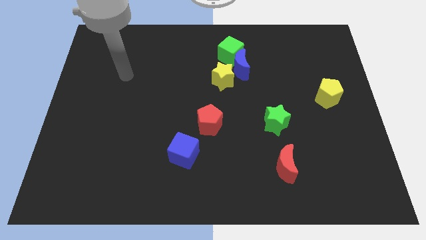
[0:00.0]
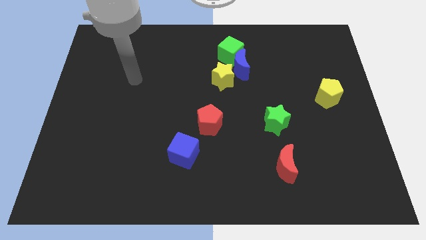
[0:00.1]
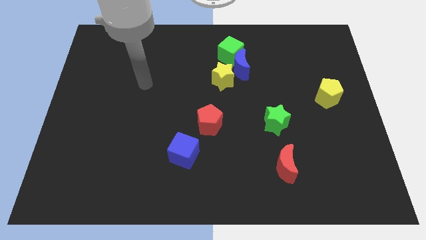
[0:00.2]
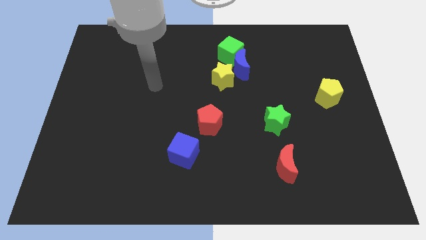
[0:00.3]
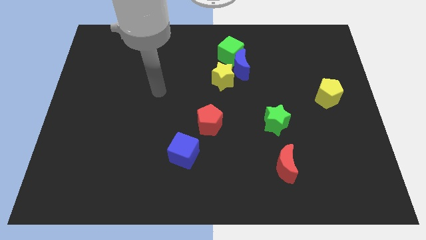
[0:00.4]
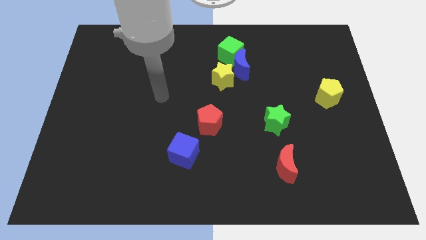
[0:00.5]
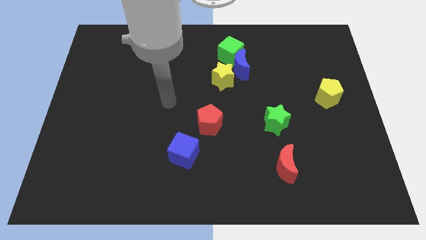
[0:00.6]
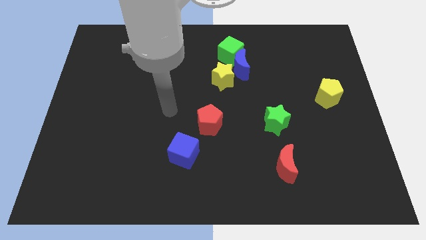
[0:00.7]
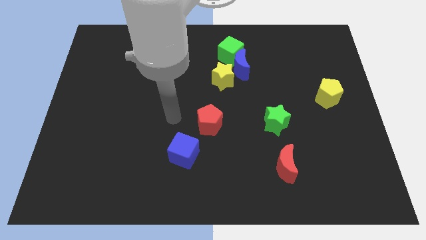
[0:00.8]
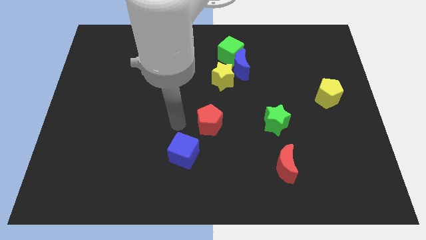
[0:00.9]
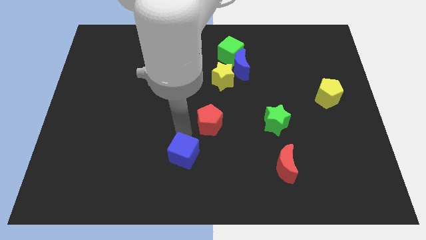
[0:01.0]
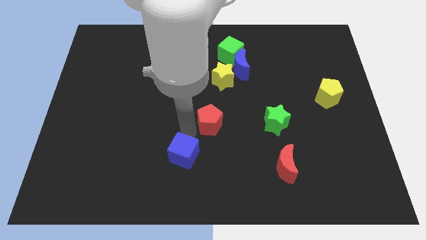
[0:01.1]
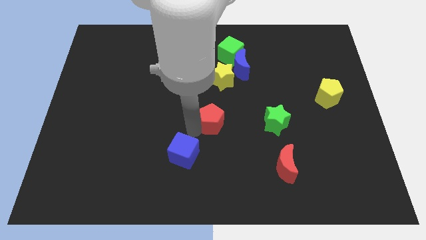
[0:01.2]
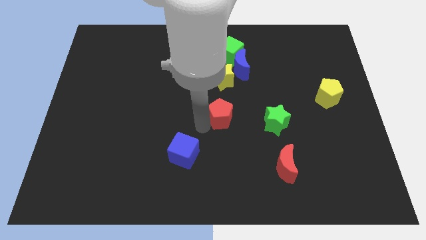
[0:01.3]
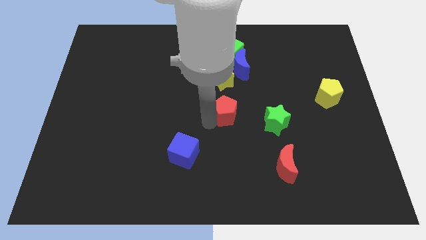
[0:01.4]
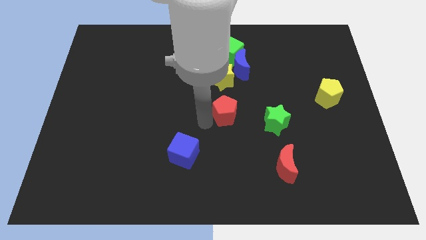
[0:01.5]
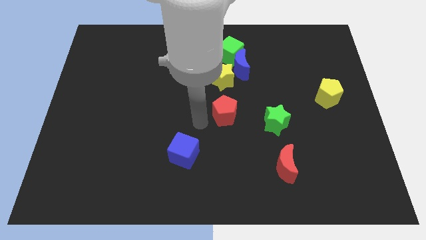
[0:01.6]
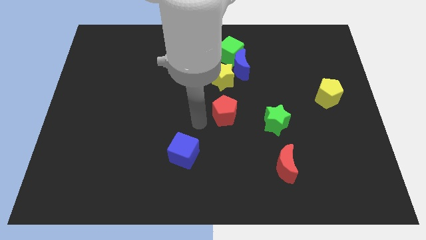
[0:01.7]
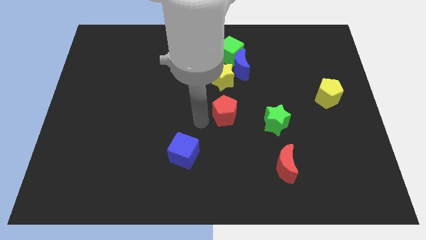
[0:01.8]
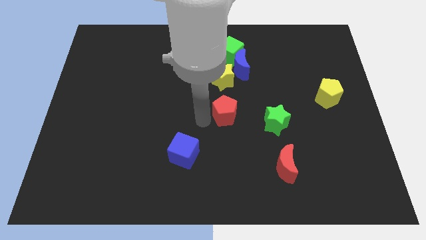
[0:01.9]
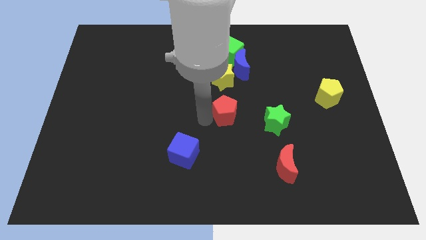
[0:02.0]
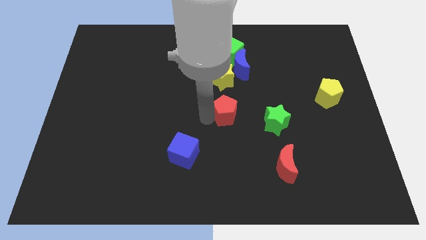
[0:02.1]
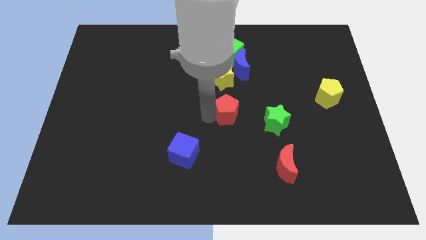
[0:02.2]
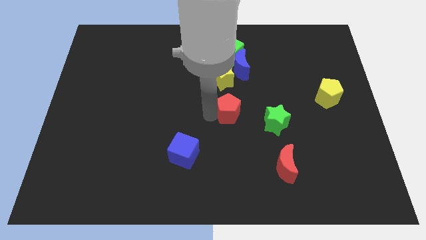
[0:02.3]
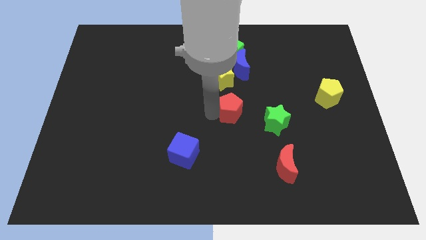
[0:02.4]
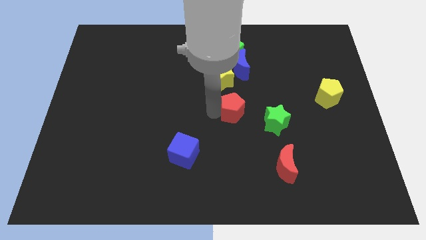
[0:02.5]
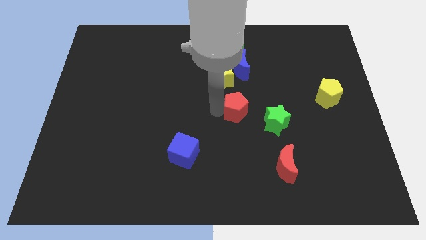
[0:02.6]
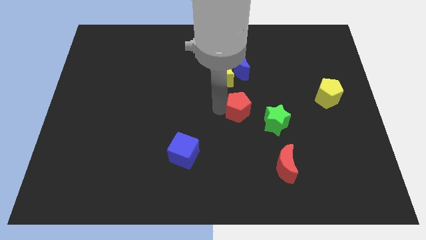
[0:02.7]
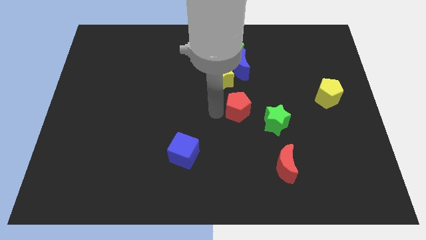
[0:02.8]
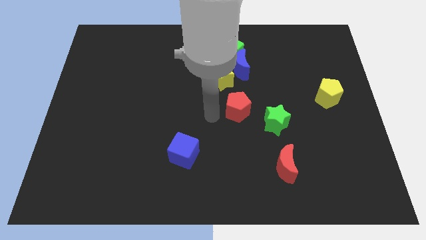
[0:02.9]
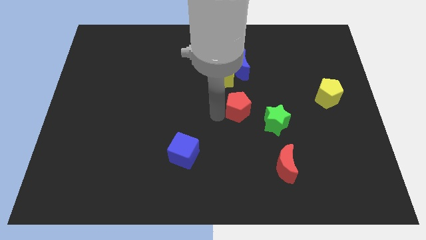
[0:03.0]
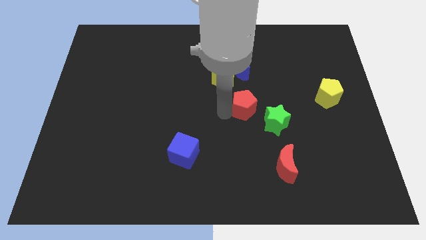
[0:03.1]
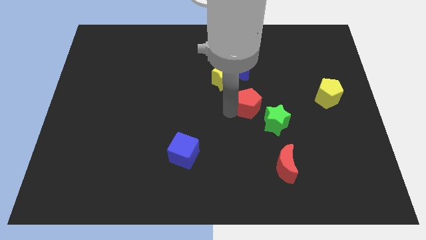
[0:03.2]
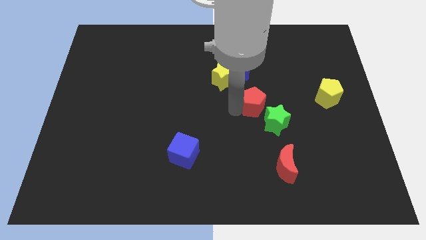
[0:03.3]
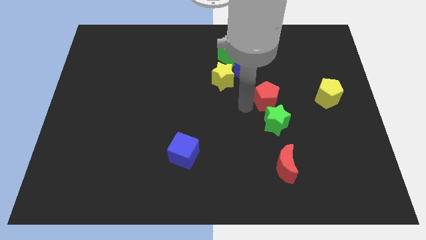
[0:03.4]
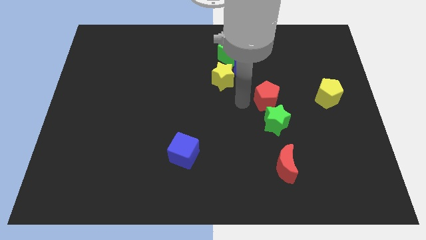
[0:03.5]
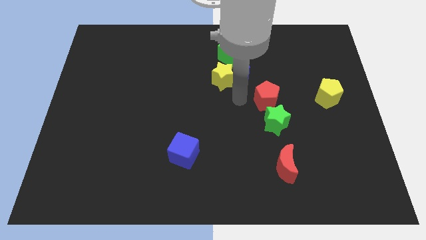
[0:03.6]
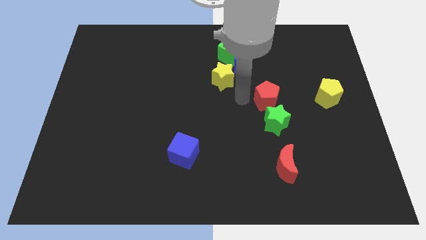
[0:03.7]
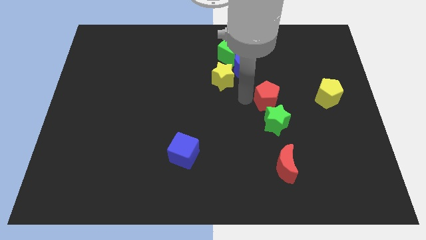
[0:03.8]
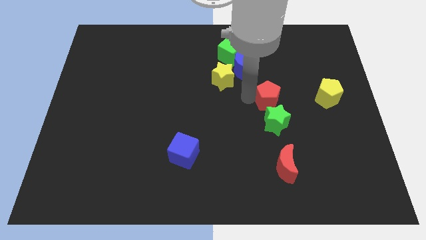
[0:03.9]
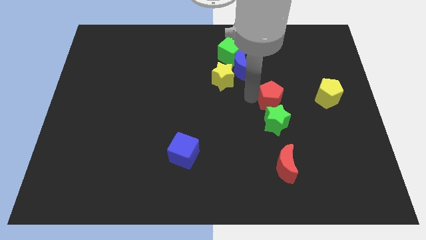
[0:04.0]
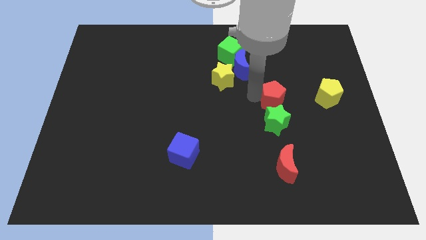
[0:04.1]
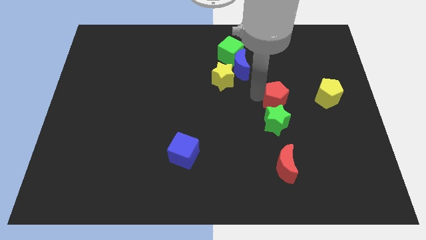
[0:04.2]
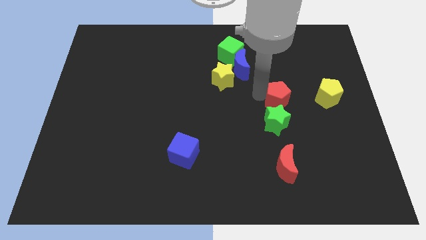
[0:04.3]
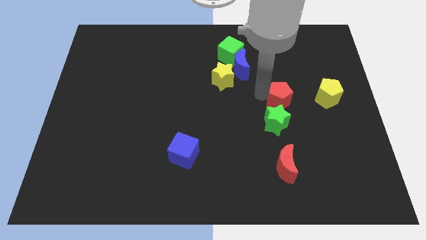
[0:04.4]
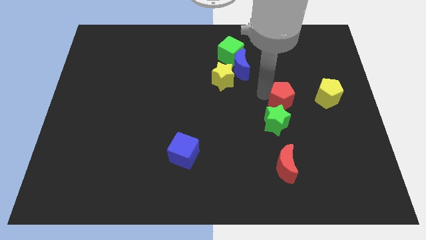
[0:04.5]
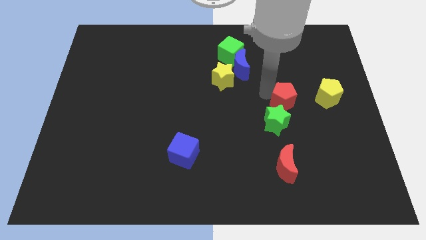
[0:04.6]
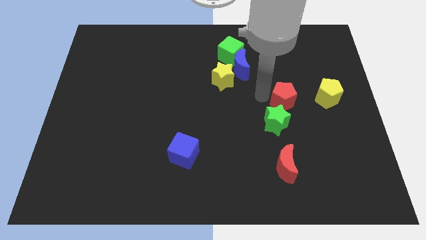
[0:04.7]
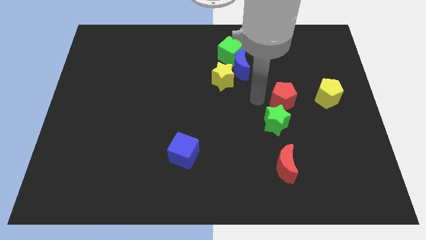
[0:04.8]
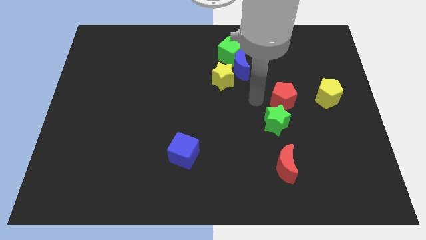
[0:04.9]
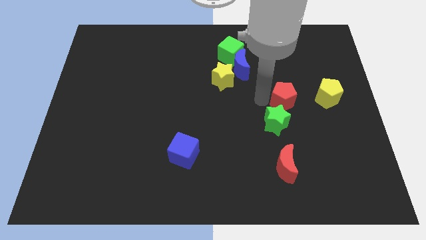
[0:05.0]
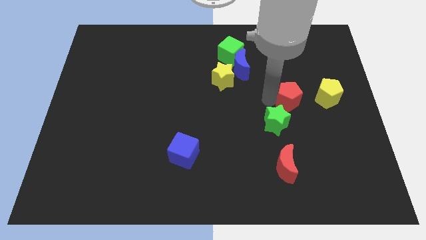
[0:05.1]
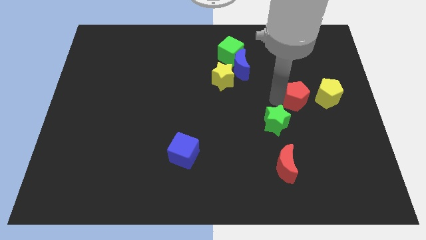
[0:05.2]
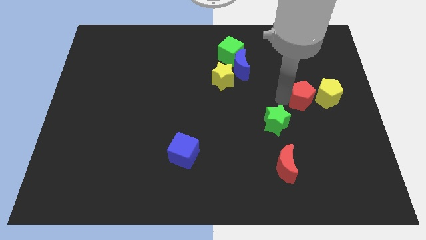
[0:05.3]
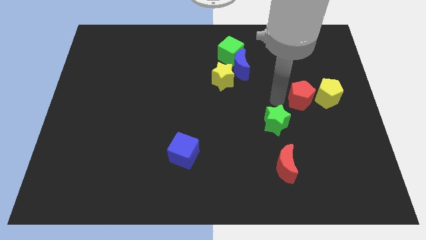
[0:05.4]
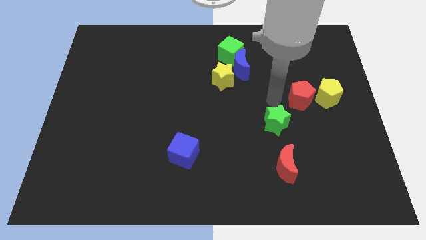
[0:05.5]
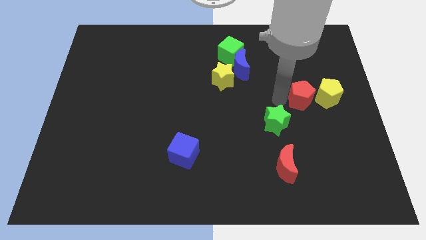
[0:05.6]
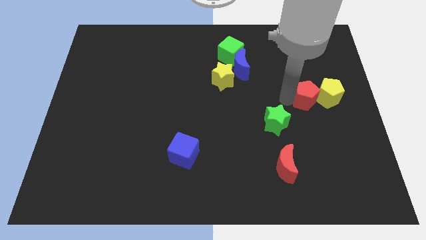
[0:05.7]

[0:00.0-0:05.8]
put the red pentagon close to the yellow pentagon

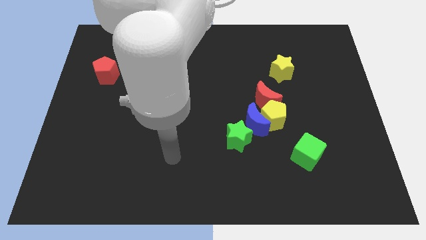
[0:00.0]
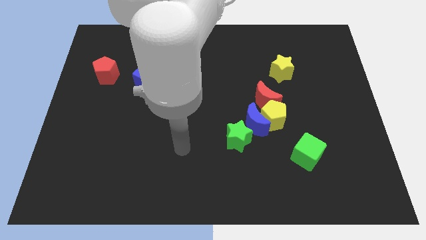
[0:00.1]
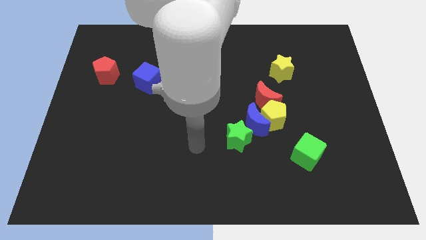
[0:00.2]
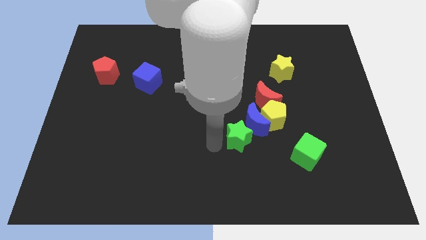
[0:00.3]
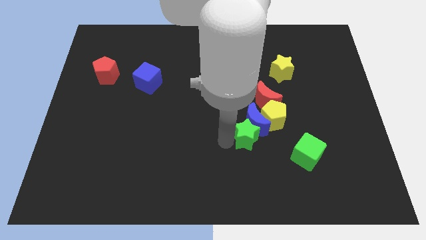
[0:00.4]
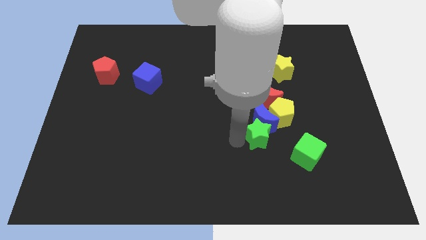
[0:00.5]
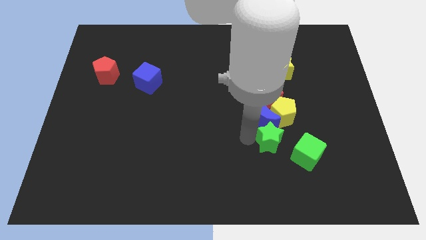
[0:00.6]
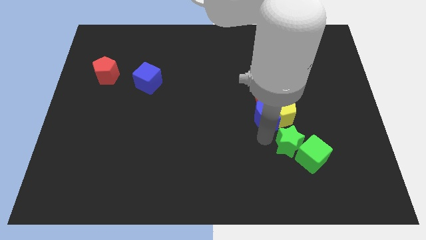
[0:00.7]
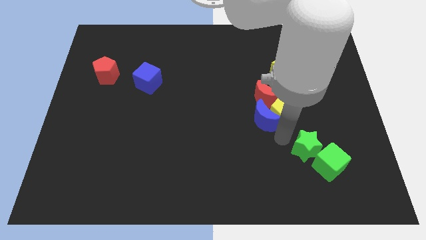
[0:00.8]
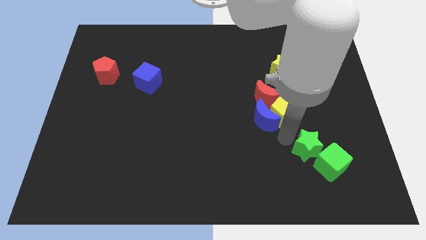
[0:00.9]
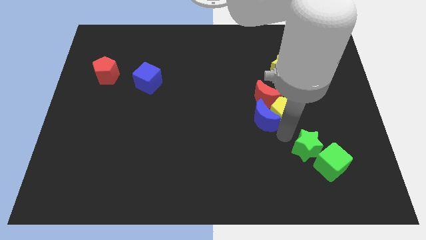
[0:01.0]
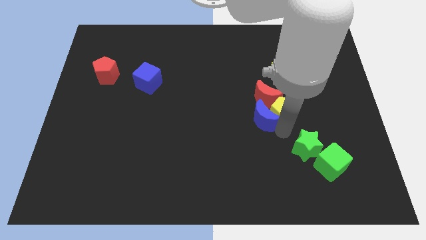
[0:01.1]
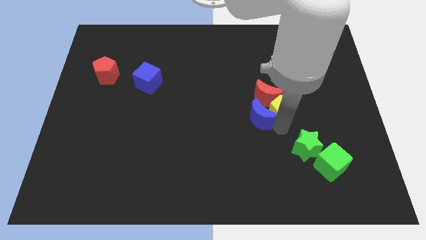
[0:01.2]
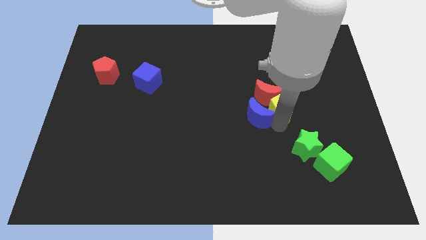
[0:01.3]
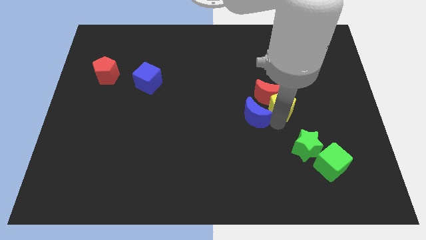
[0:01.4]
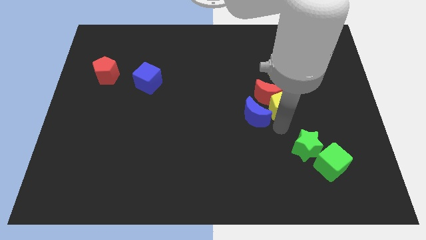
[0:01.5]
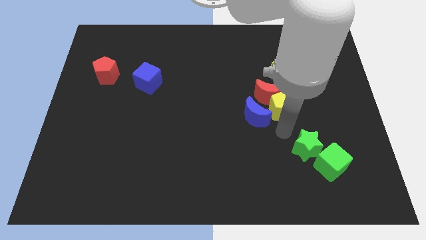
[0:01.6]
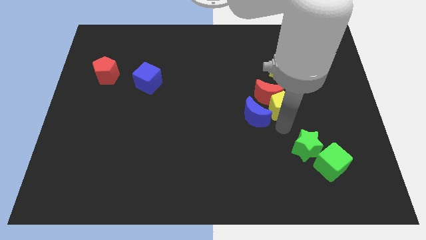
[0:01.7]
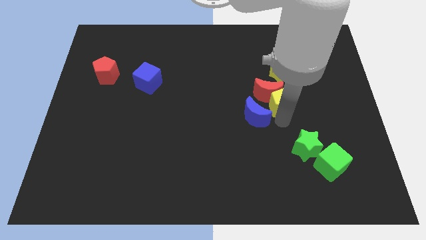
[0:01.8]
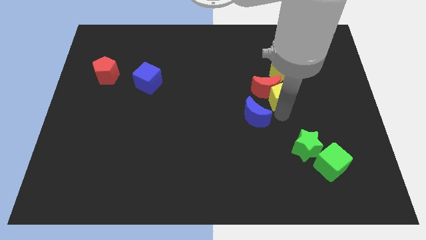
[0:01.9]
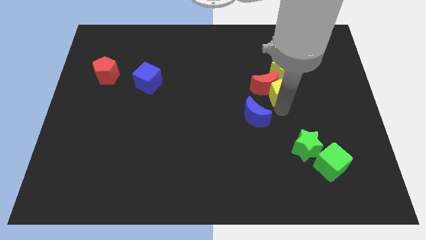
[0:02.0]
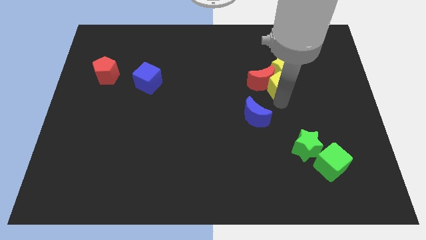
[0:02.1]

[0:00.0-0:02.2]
slide the yellow pentagon close to the yellow star
